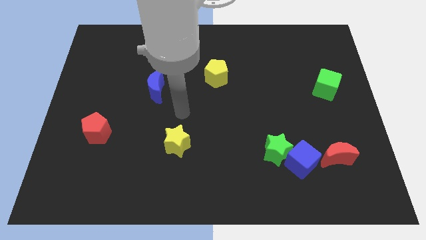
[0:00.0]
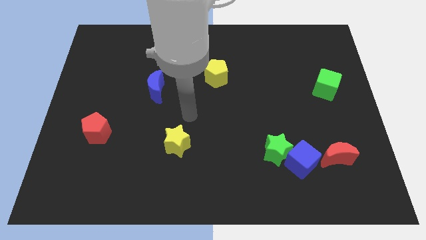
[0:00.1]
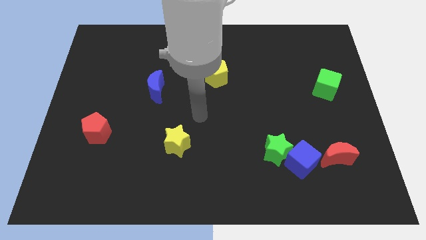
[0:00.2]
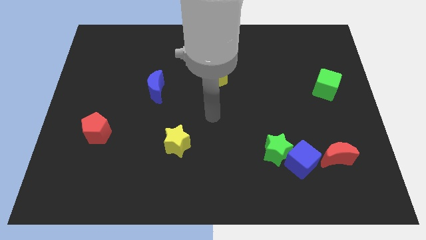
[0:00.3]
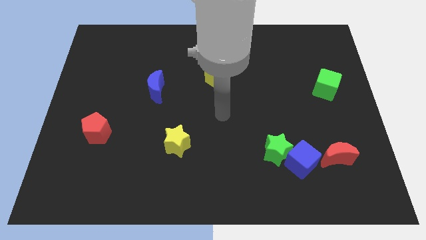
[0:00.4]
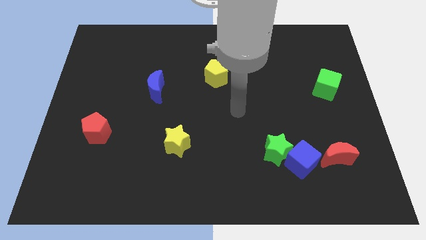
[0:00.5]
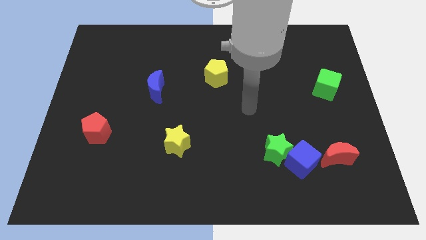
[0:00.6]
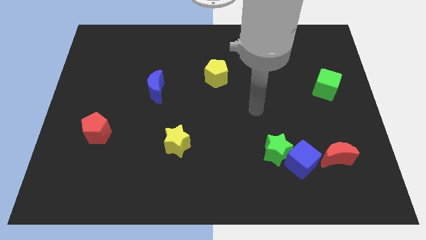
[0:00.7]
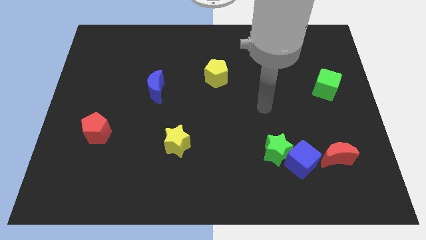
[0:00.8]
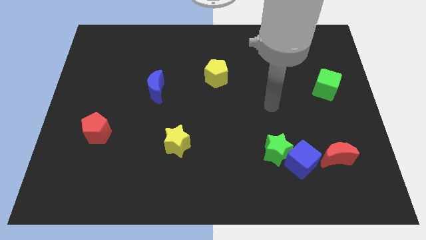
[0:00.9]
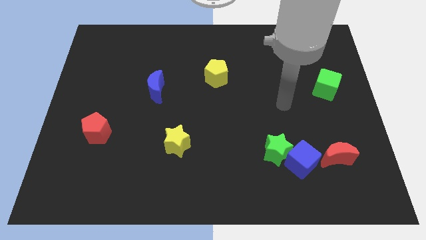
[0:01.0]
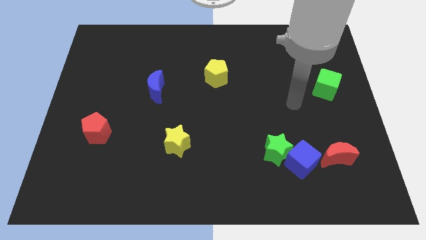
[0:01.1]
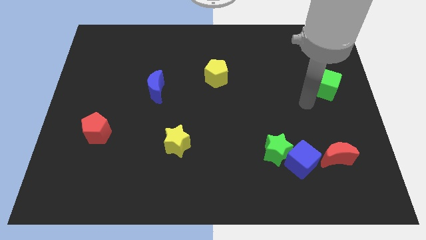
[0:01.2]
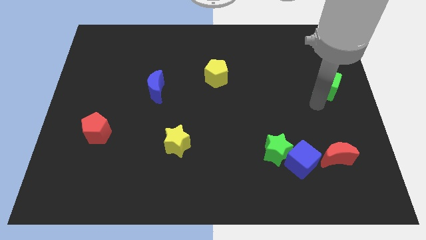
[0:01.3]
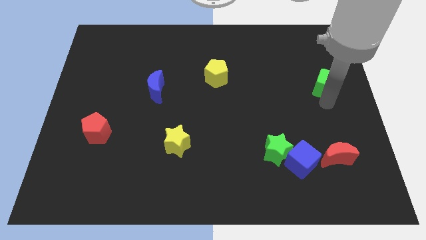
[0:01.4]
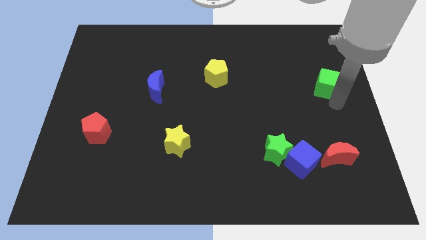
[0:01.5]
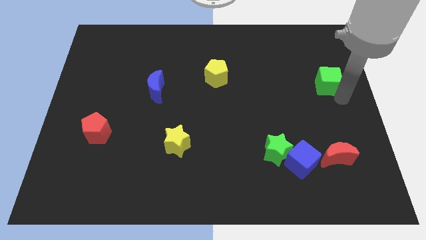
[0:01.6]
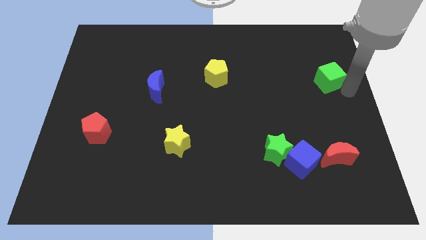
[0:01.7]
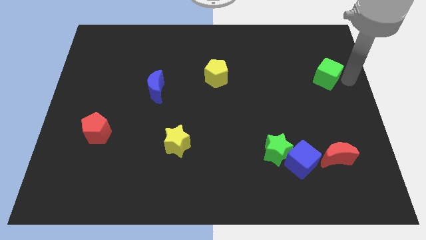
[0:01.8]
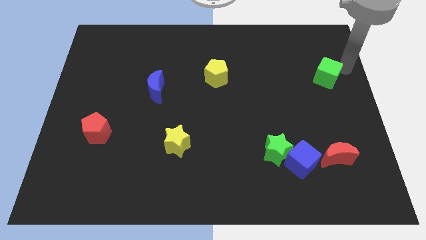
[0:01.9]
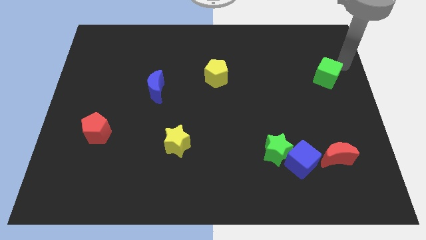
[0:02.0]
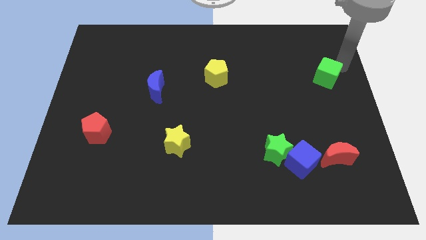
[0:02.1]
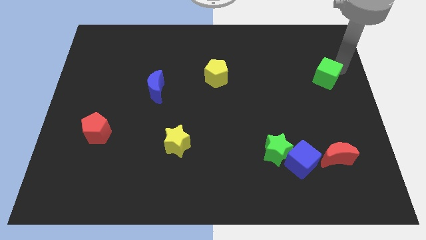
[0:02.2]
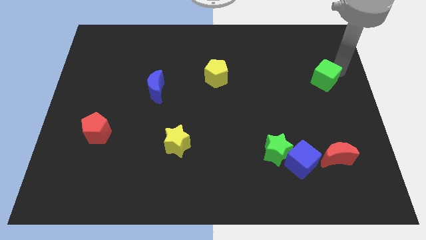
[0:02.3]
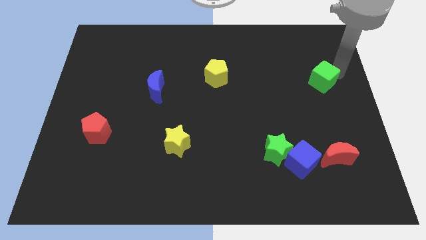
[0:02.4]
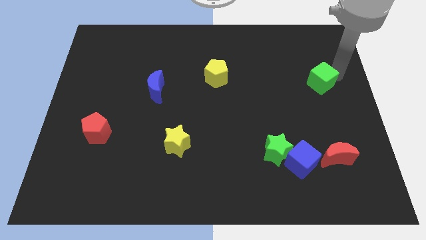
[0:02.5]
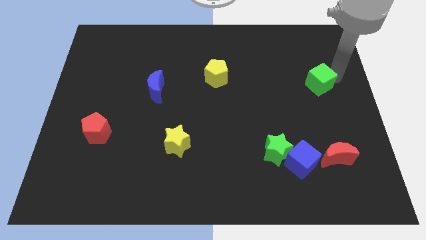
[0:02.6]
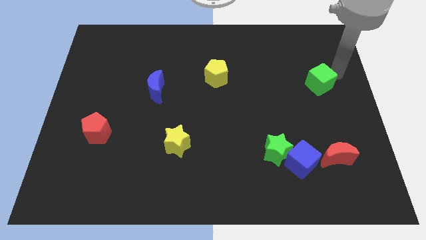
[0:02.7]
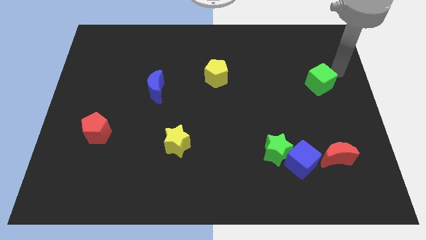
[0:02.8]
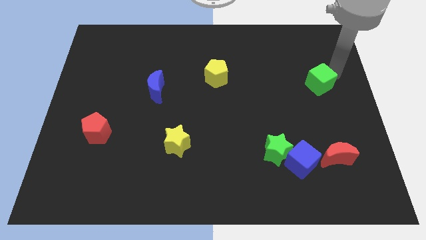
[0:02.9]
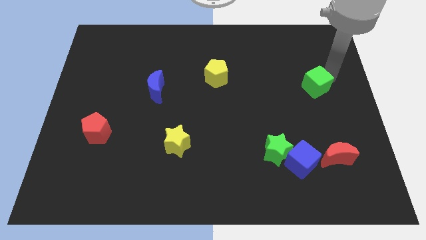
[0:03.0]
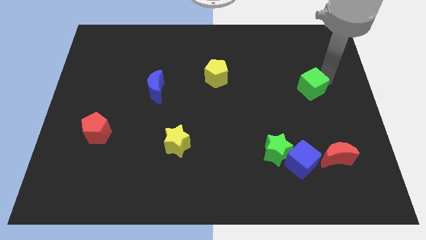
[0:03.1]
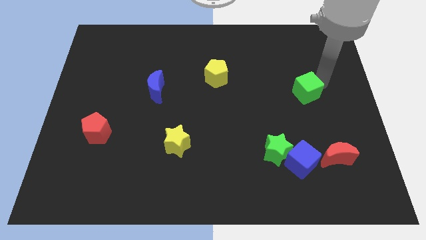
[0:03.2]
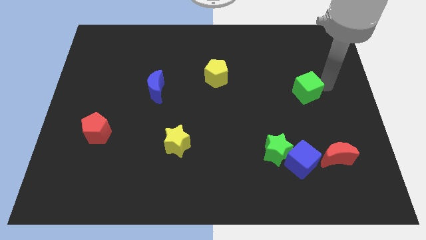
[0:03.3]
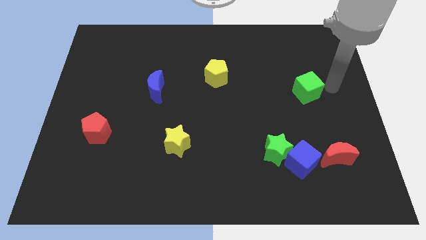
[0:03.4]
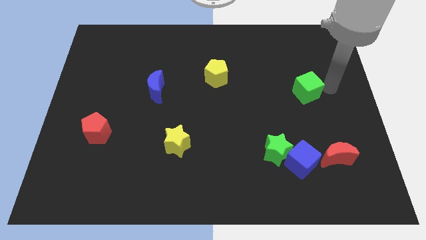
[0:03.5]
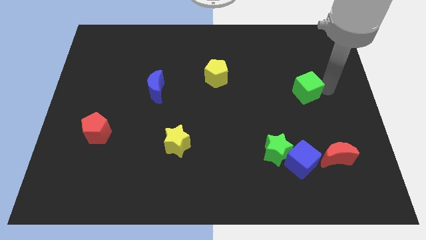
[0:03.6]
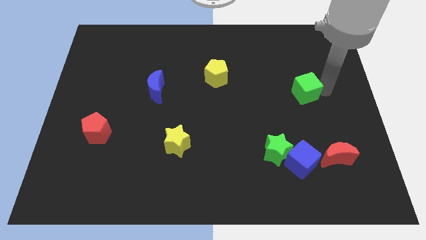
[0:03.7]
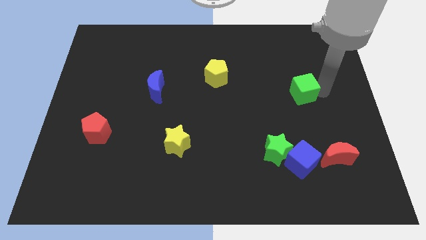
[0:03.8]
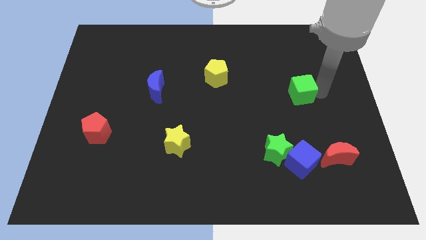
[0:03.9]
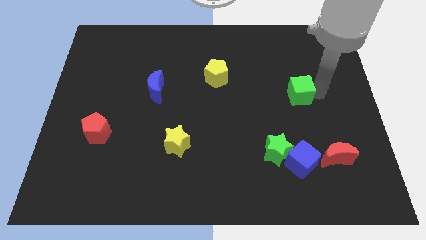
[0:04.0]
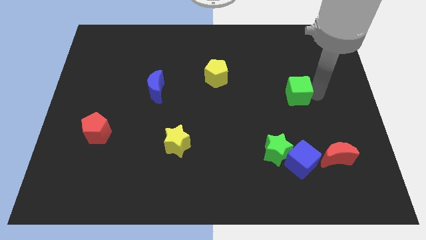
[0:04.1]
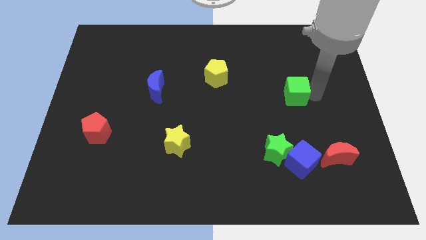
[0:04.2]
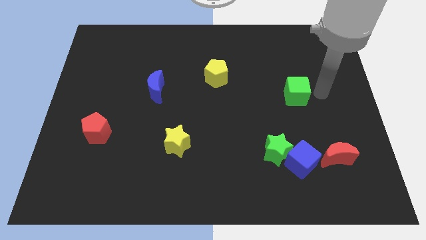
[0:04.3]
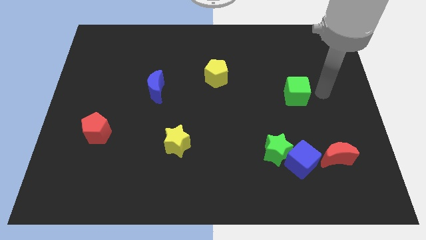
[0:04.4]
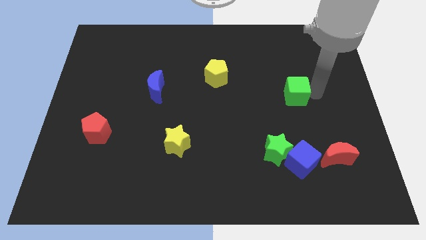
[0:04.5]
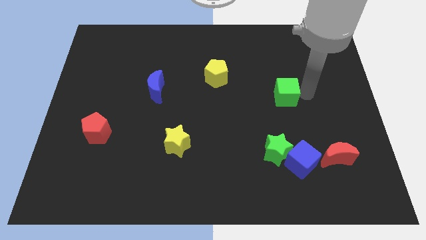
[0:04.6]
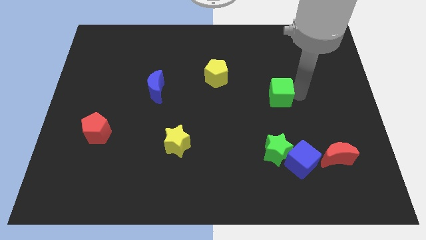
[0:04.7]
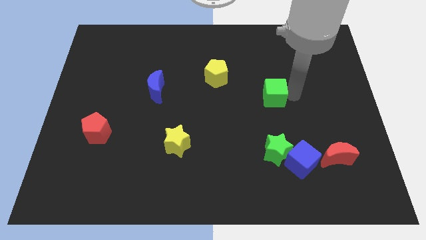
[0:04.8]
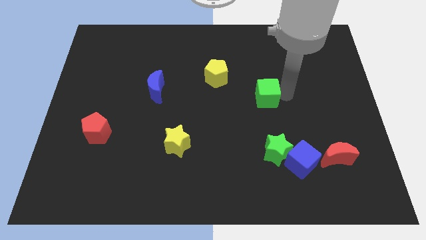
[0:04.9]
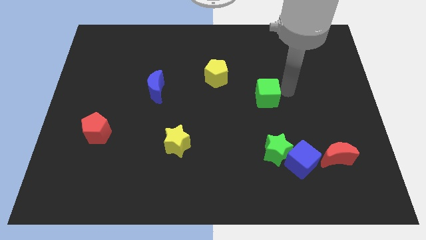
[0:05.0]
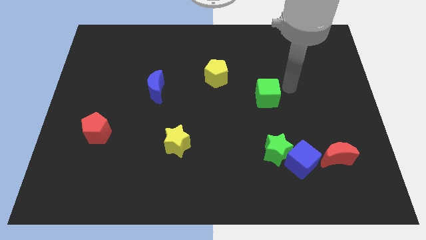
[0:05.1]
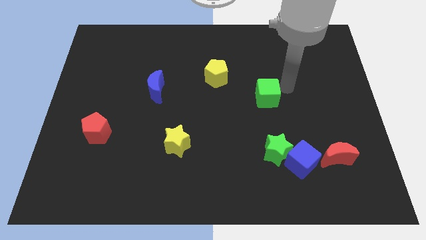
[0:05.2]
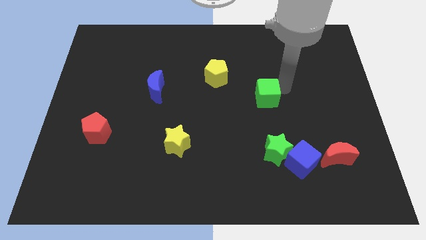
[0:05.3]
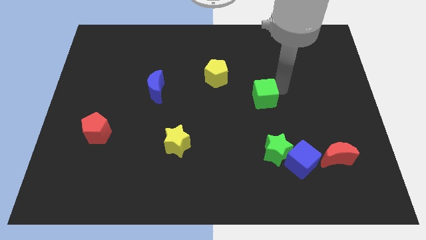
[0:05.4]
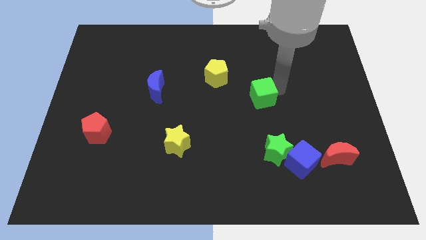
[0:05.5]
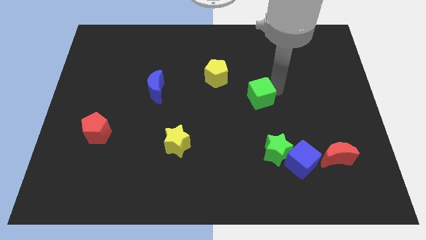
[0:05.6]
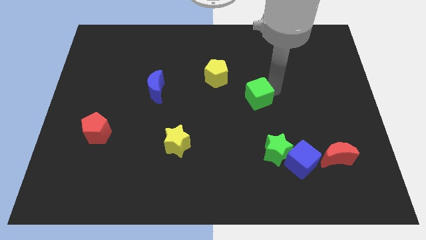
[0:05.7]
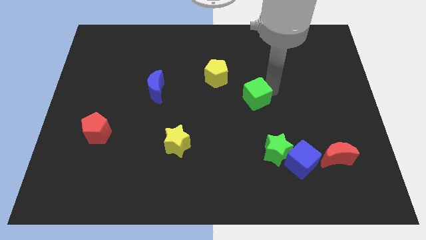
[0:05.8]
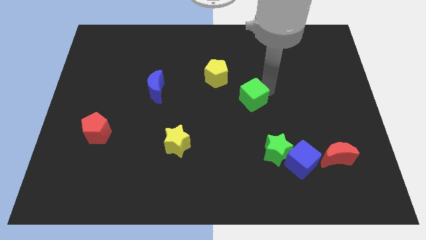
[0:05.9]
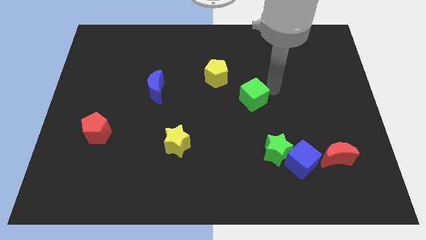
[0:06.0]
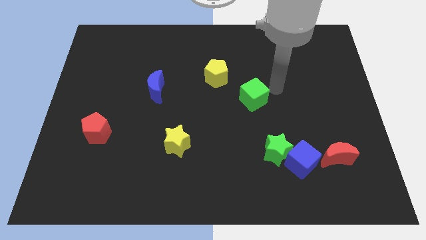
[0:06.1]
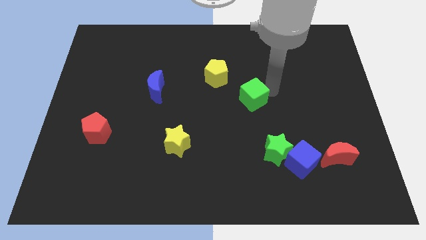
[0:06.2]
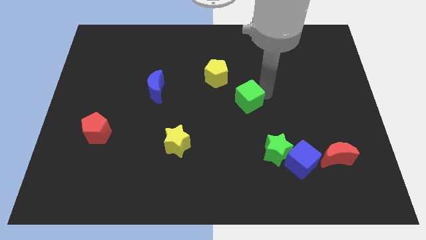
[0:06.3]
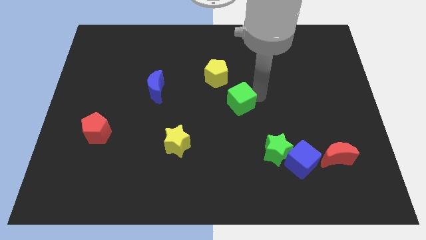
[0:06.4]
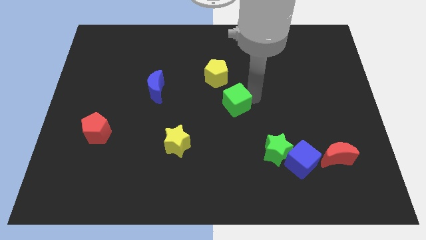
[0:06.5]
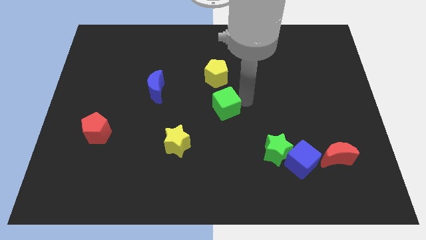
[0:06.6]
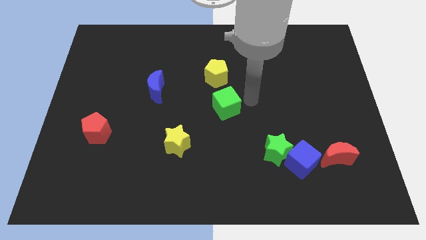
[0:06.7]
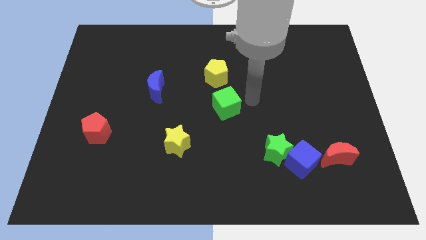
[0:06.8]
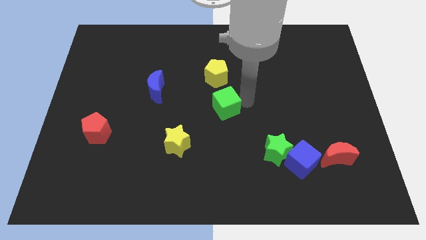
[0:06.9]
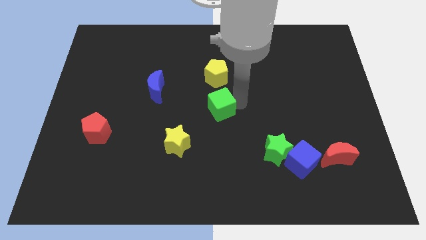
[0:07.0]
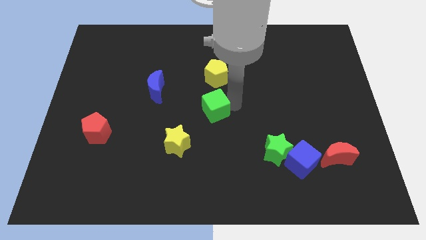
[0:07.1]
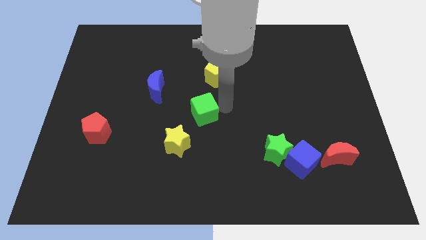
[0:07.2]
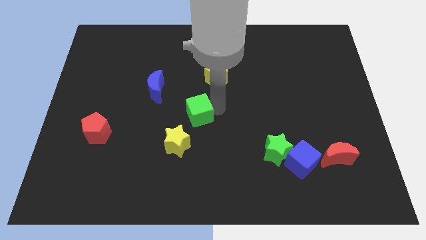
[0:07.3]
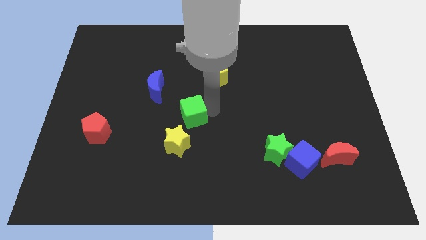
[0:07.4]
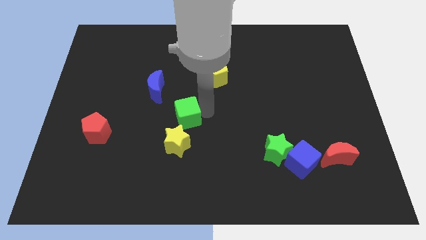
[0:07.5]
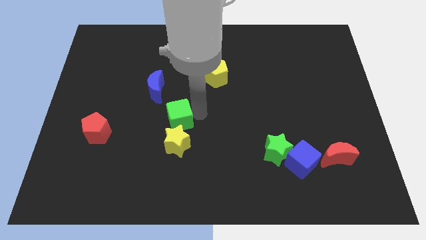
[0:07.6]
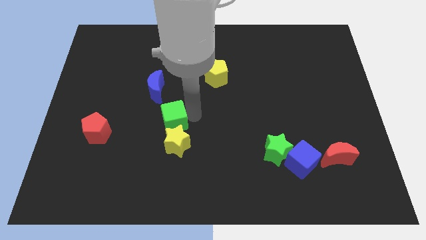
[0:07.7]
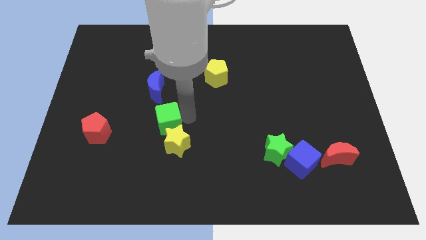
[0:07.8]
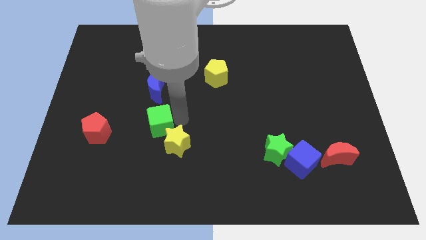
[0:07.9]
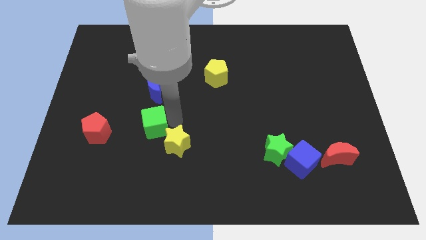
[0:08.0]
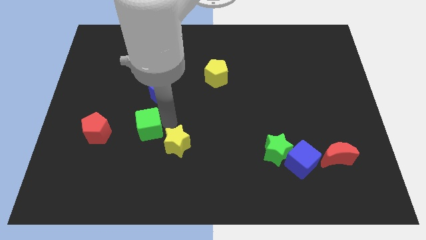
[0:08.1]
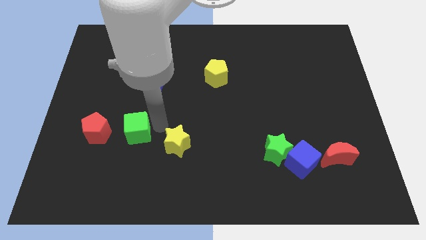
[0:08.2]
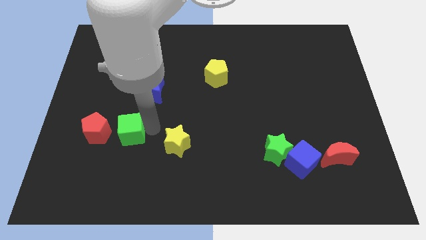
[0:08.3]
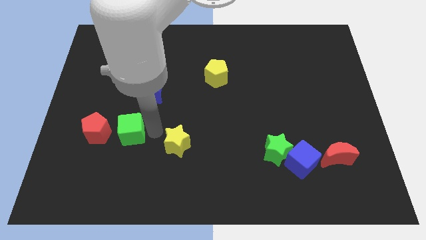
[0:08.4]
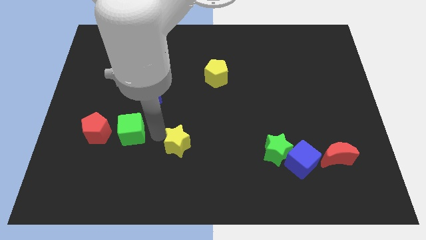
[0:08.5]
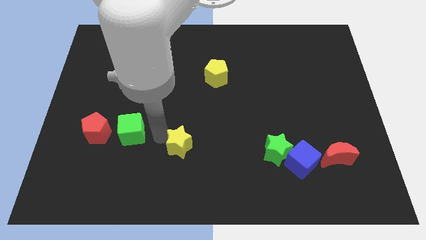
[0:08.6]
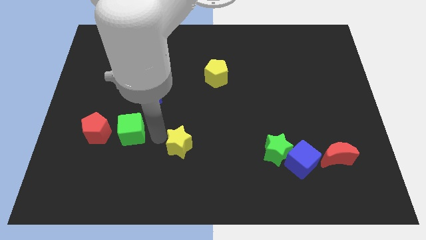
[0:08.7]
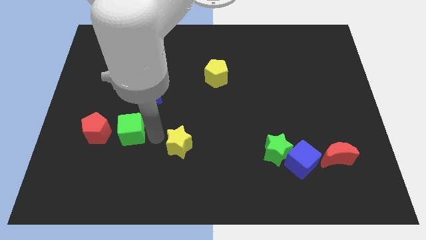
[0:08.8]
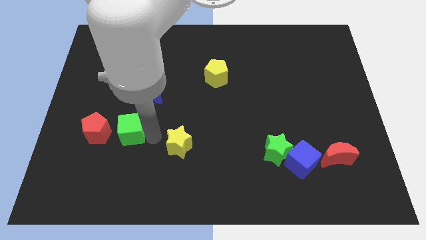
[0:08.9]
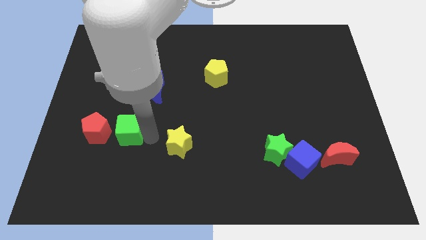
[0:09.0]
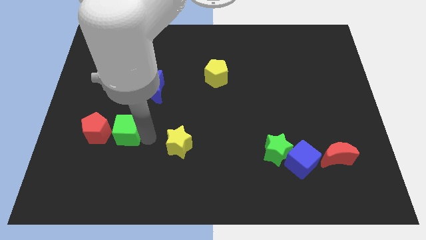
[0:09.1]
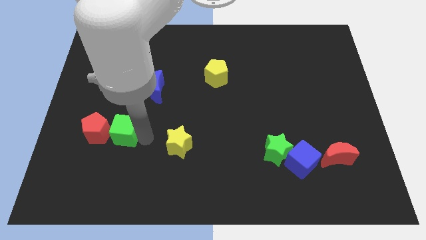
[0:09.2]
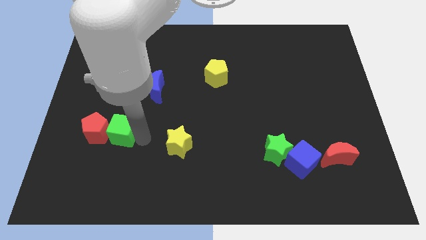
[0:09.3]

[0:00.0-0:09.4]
move the green cube towards the red pentagon
